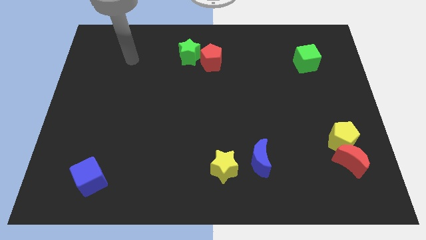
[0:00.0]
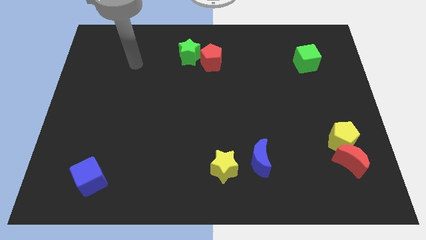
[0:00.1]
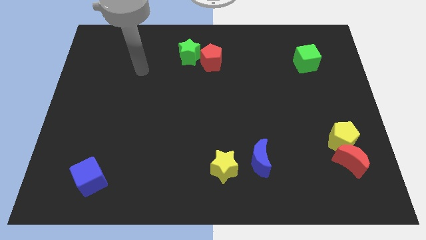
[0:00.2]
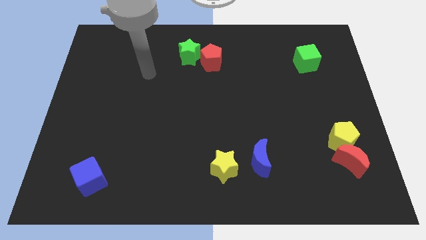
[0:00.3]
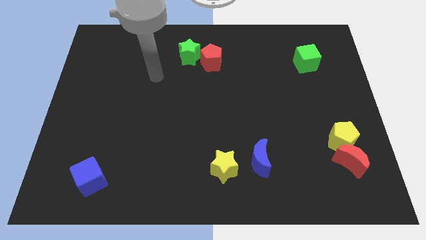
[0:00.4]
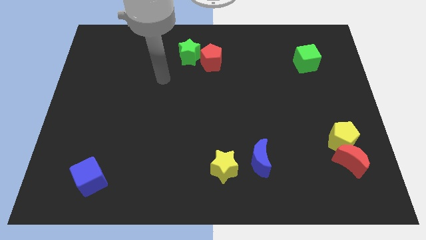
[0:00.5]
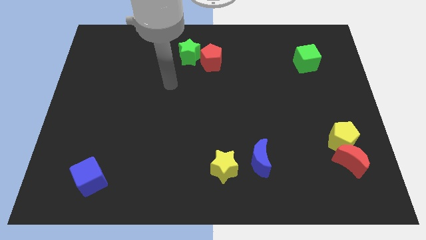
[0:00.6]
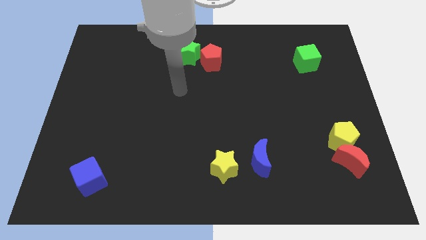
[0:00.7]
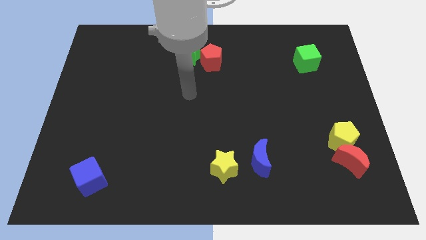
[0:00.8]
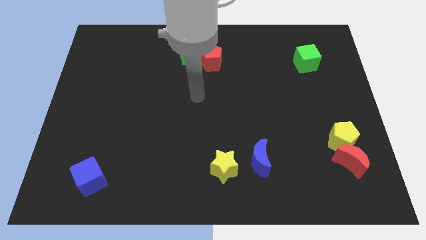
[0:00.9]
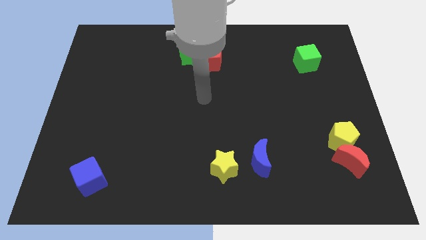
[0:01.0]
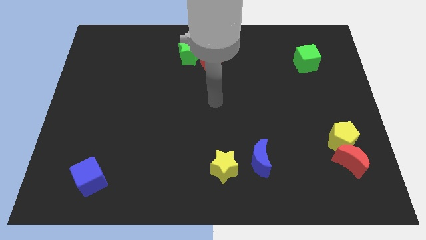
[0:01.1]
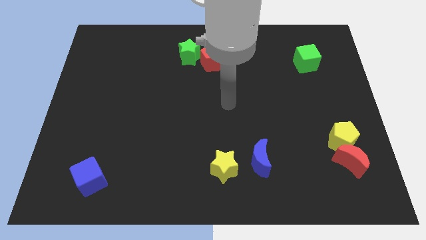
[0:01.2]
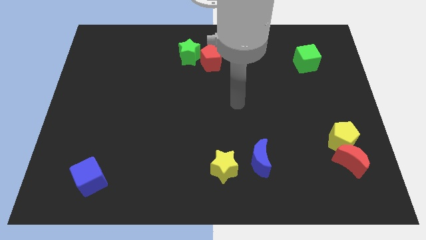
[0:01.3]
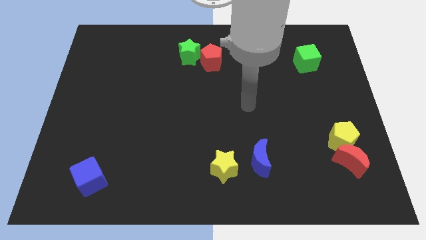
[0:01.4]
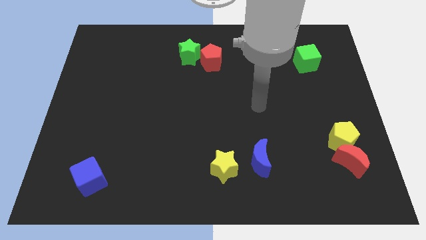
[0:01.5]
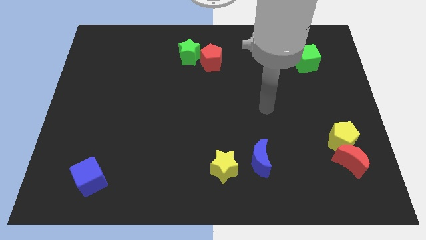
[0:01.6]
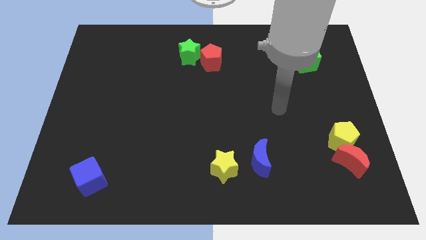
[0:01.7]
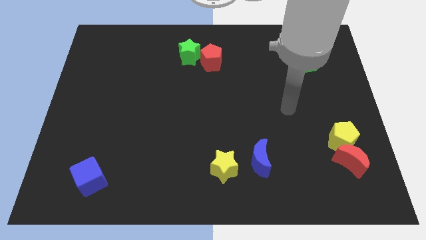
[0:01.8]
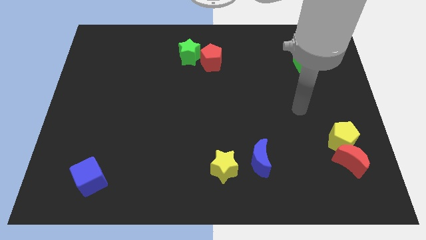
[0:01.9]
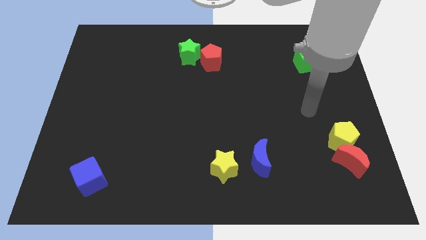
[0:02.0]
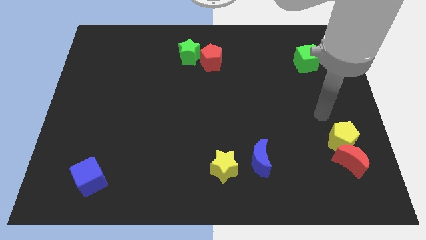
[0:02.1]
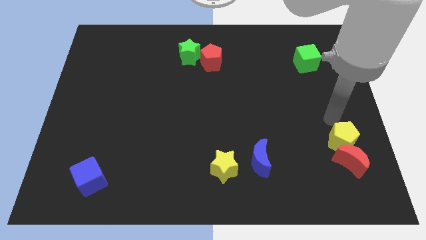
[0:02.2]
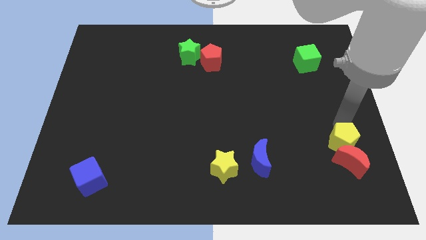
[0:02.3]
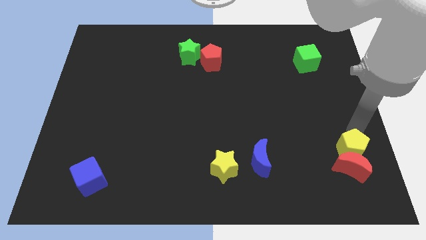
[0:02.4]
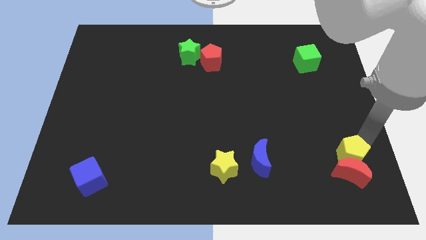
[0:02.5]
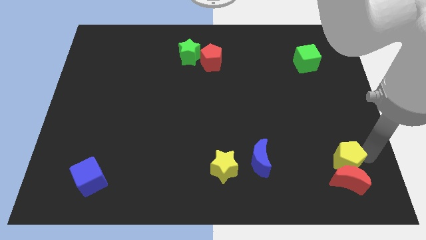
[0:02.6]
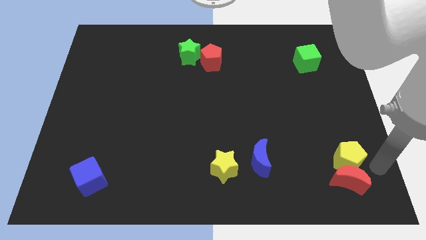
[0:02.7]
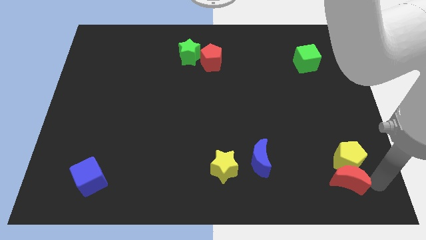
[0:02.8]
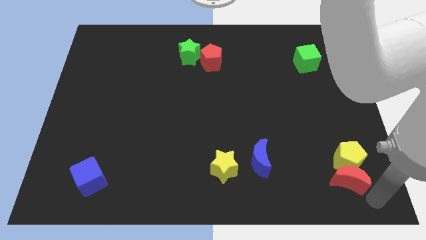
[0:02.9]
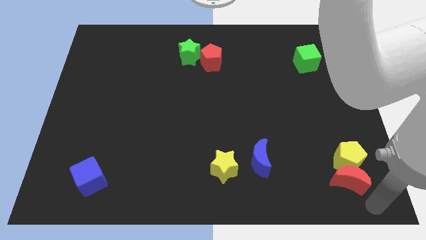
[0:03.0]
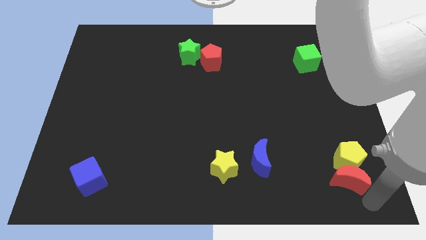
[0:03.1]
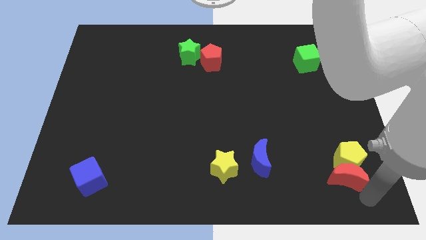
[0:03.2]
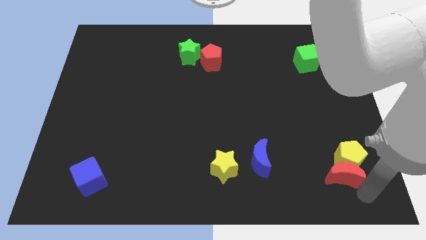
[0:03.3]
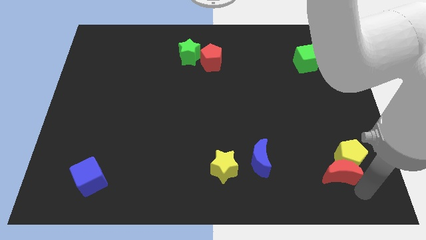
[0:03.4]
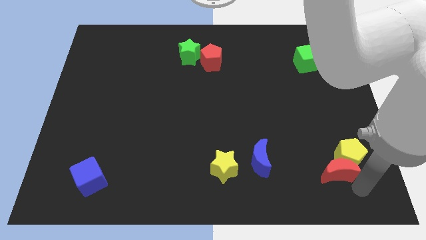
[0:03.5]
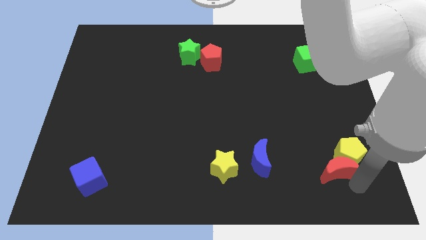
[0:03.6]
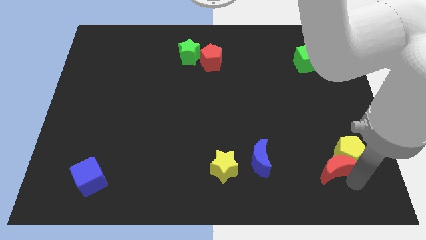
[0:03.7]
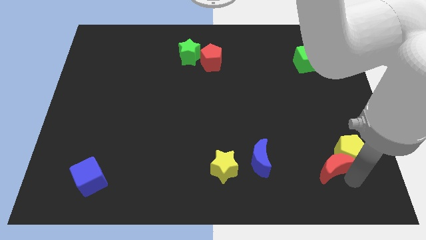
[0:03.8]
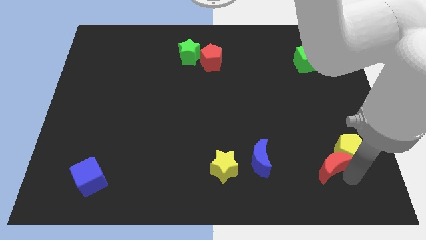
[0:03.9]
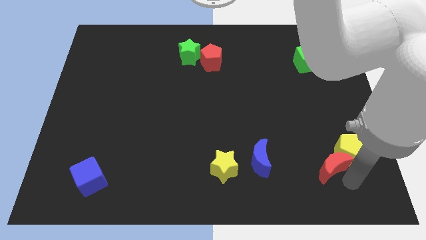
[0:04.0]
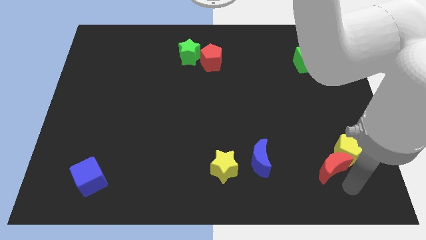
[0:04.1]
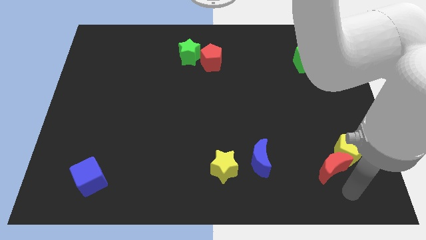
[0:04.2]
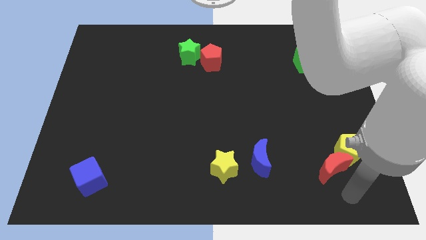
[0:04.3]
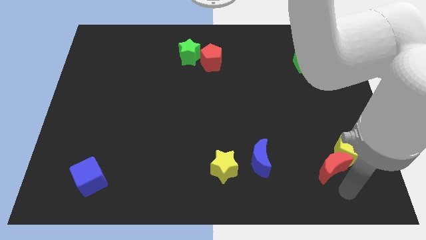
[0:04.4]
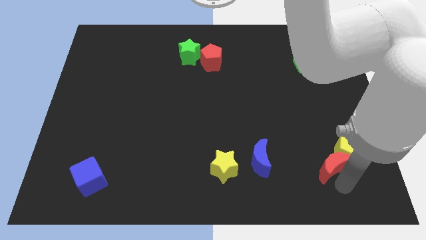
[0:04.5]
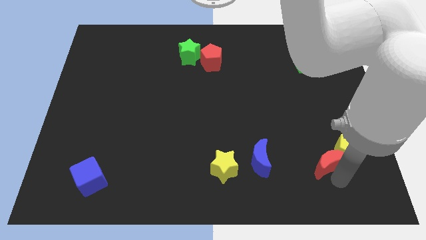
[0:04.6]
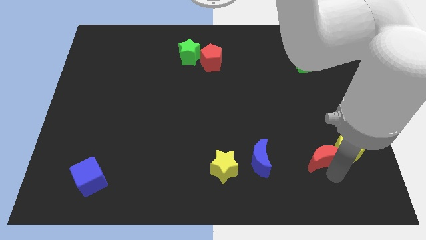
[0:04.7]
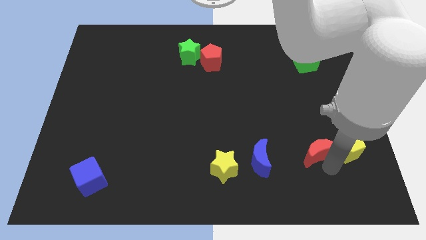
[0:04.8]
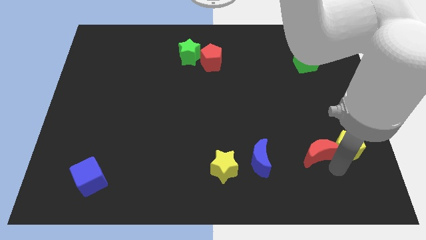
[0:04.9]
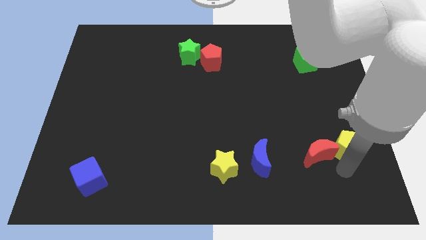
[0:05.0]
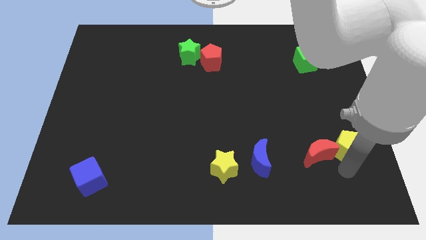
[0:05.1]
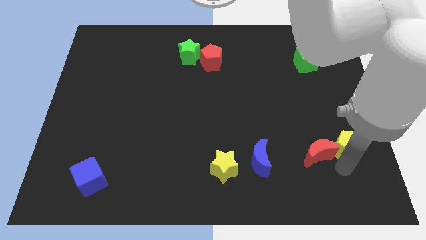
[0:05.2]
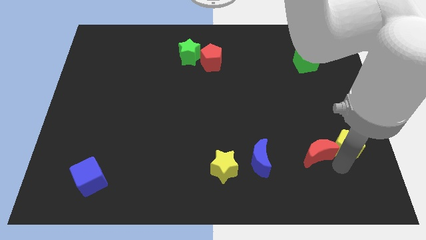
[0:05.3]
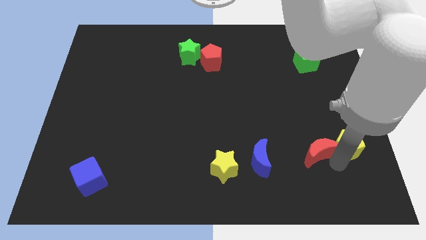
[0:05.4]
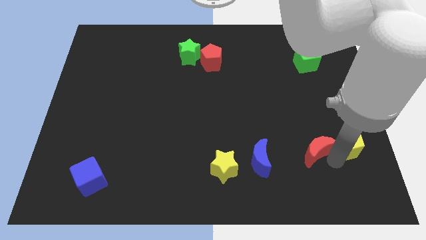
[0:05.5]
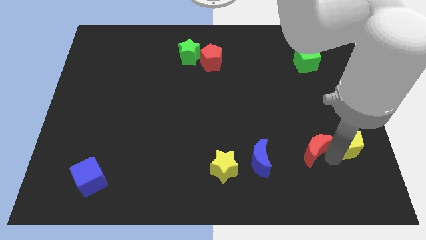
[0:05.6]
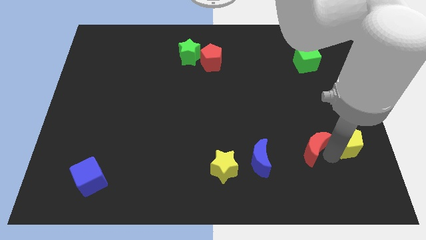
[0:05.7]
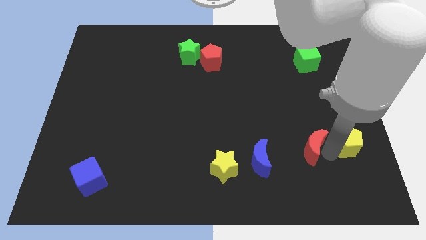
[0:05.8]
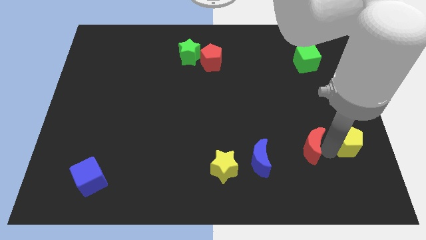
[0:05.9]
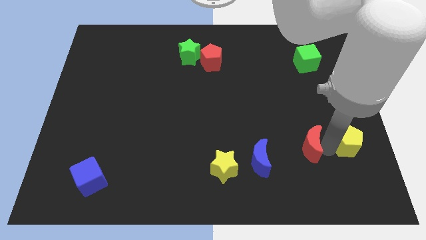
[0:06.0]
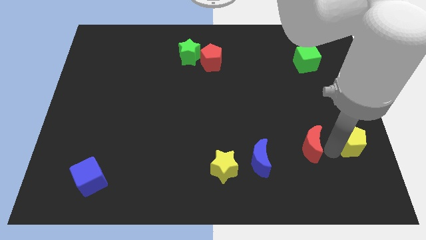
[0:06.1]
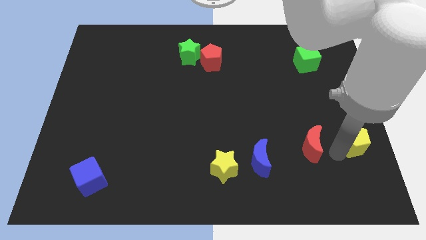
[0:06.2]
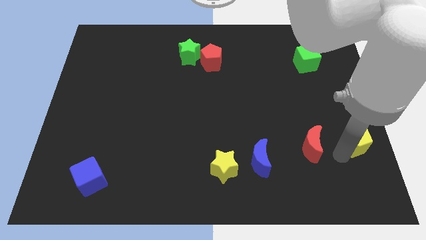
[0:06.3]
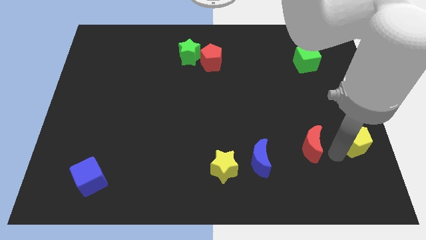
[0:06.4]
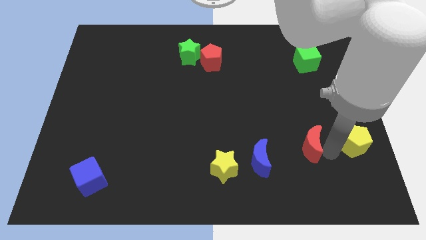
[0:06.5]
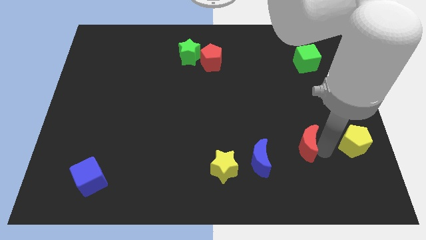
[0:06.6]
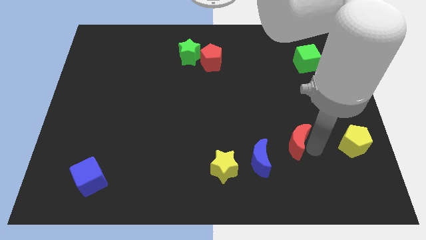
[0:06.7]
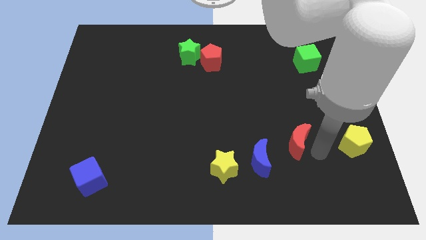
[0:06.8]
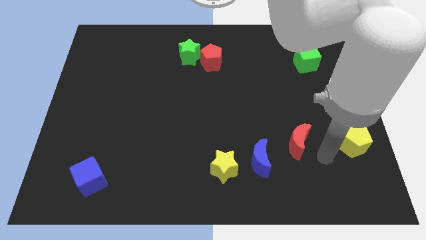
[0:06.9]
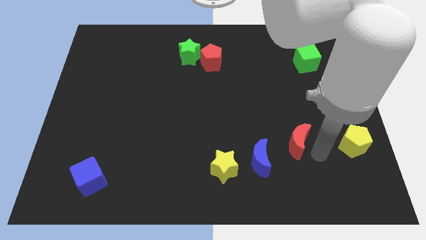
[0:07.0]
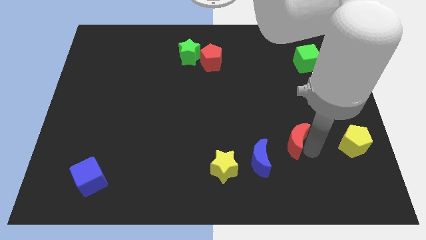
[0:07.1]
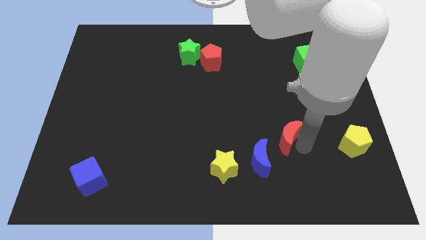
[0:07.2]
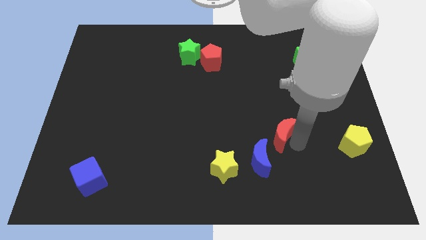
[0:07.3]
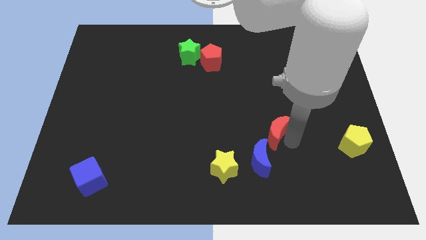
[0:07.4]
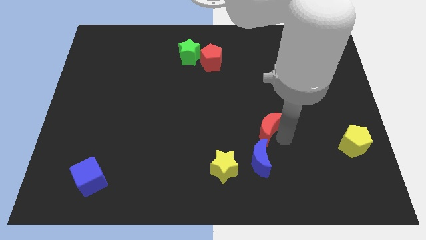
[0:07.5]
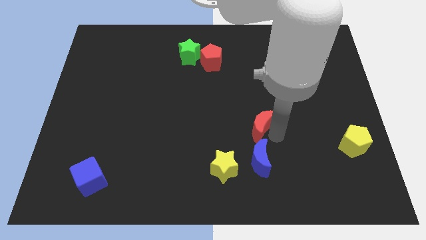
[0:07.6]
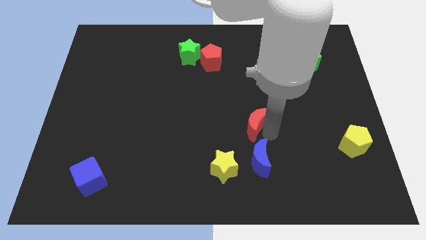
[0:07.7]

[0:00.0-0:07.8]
slide the red moon to the center
